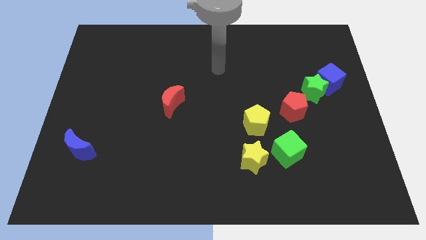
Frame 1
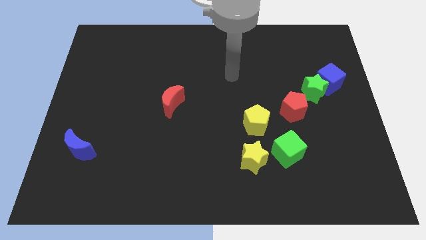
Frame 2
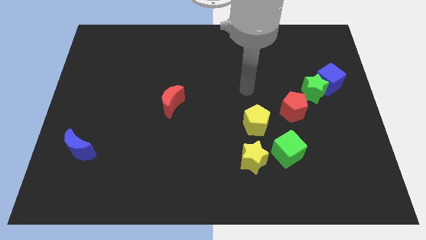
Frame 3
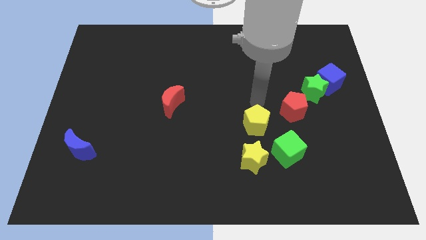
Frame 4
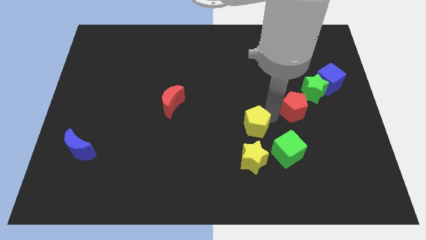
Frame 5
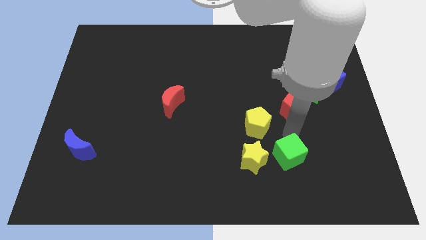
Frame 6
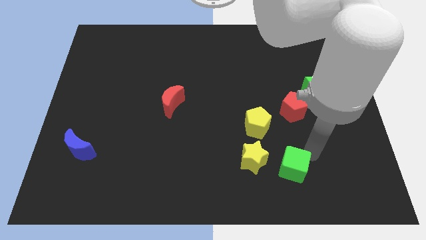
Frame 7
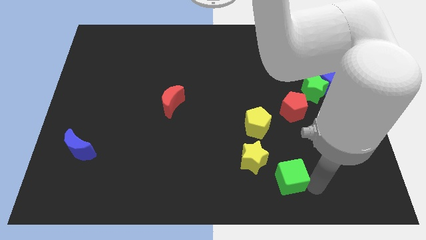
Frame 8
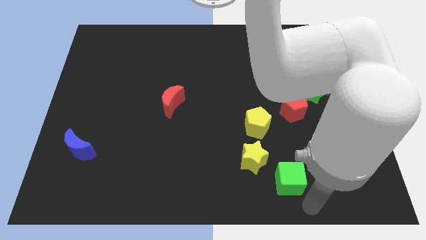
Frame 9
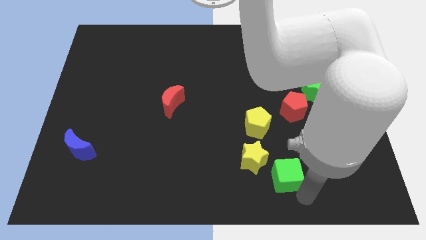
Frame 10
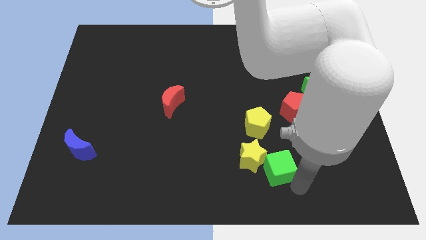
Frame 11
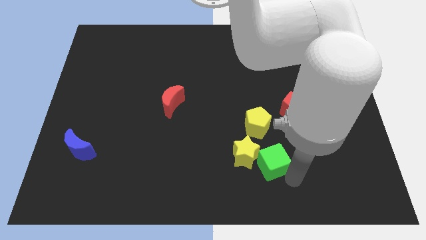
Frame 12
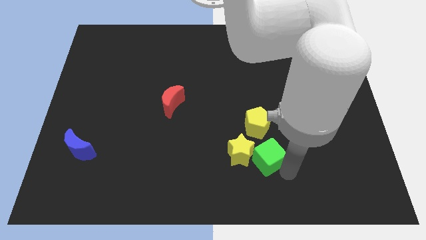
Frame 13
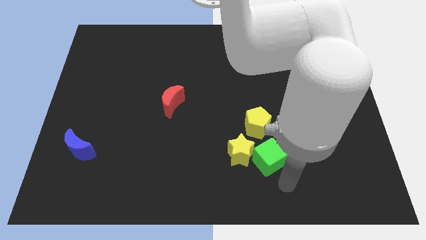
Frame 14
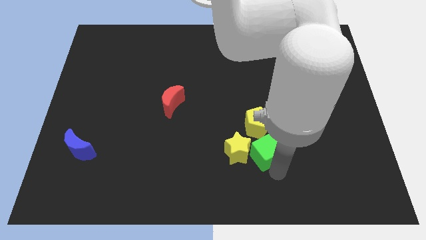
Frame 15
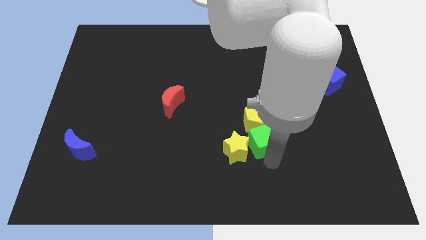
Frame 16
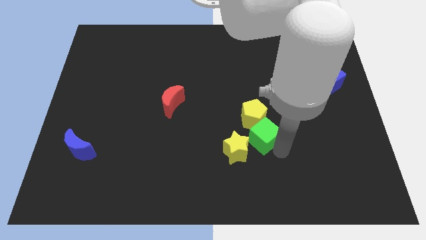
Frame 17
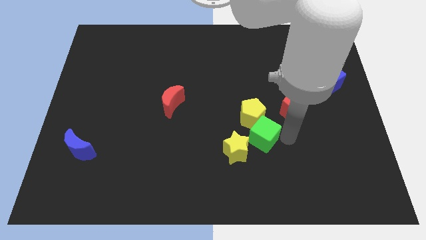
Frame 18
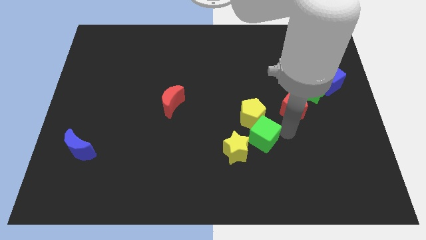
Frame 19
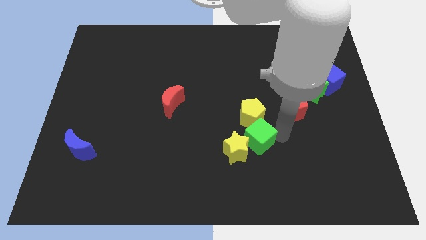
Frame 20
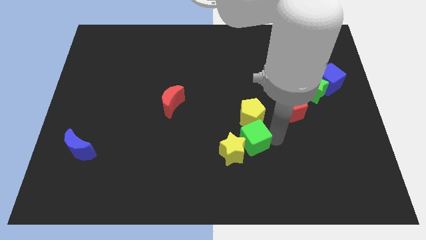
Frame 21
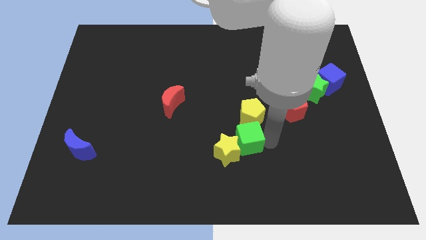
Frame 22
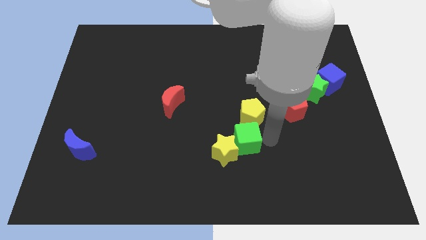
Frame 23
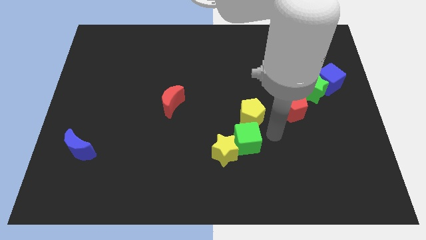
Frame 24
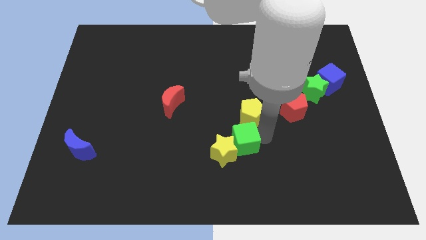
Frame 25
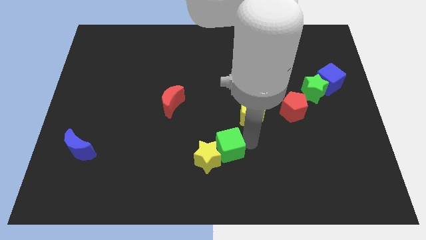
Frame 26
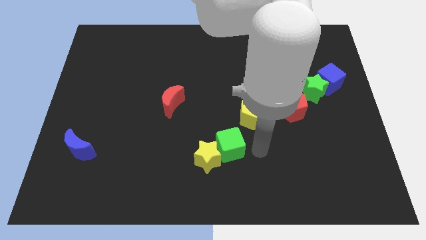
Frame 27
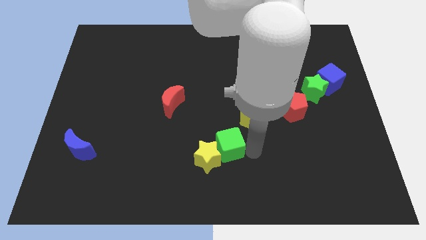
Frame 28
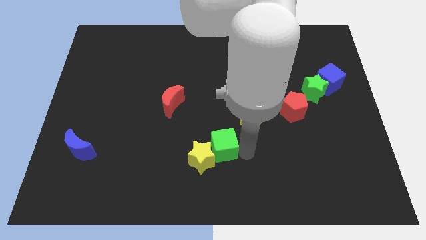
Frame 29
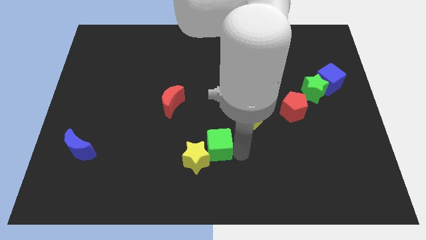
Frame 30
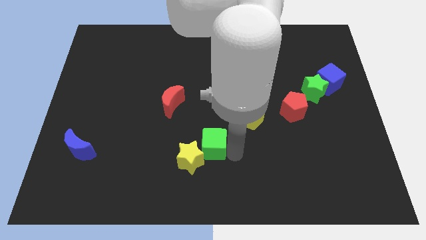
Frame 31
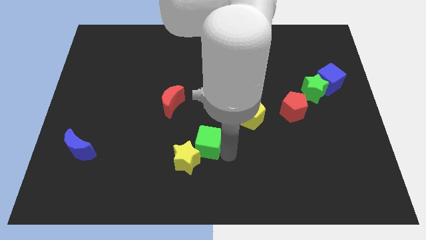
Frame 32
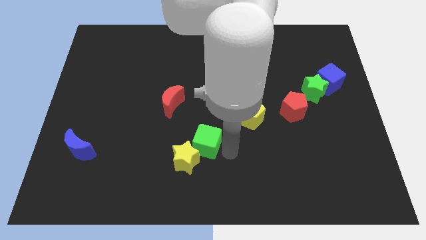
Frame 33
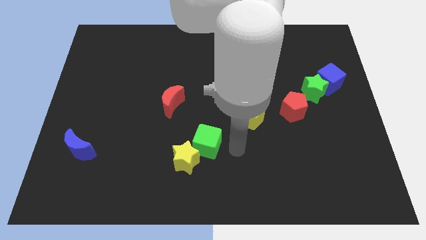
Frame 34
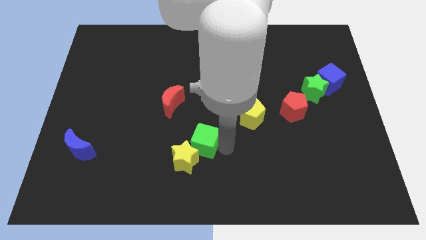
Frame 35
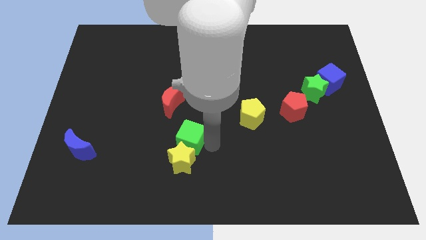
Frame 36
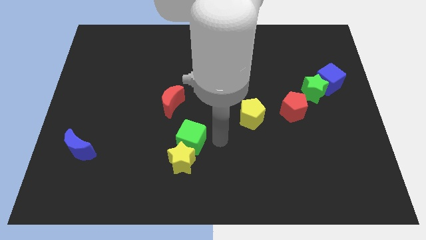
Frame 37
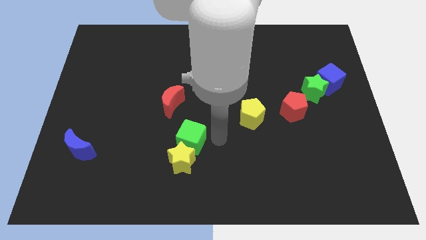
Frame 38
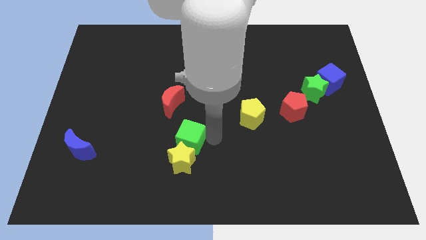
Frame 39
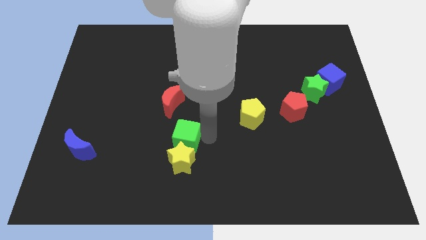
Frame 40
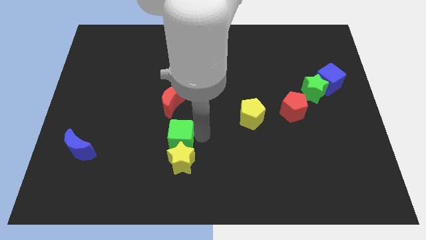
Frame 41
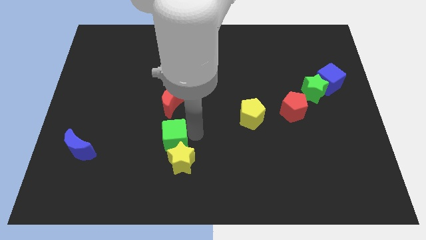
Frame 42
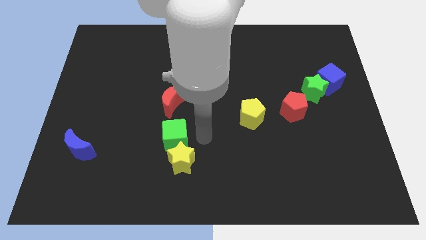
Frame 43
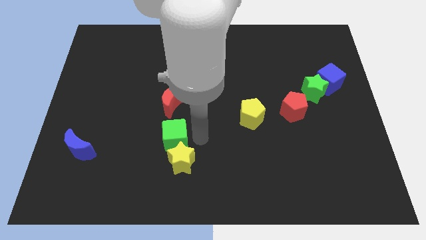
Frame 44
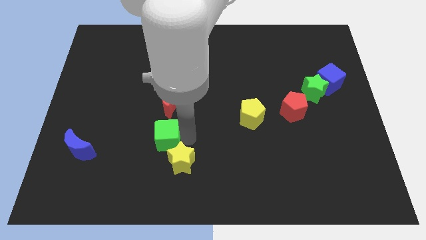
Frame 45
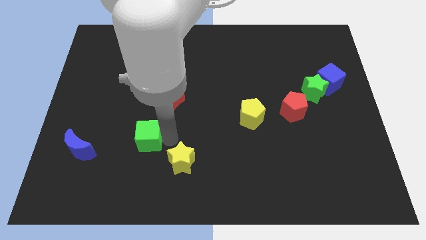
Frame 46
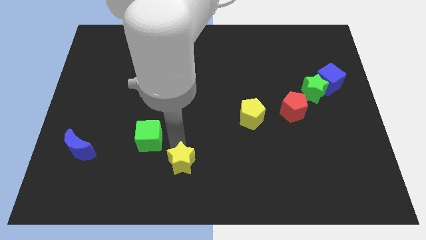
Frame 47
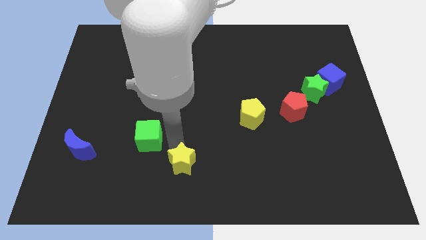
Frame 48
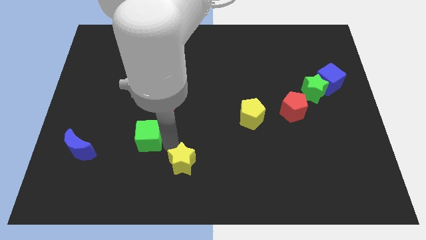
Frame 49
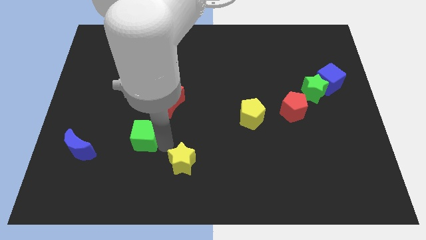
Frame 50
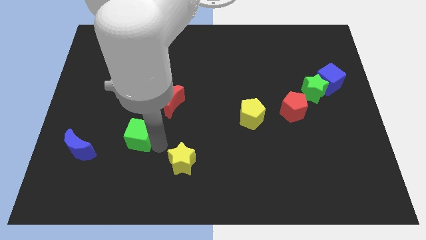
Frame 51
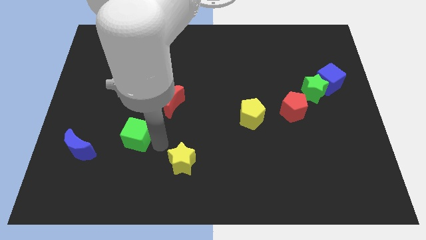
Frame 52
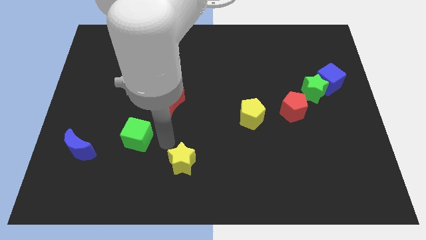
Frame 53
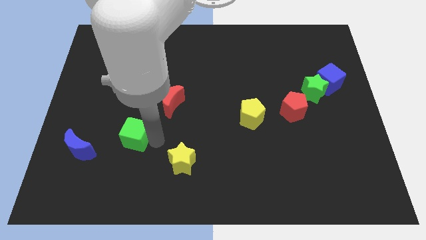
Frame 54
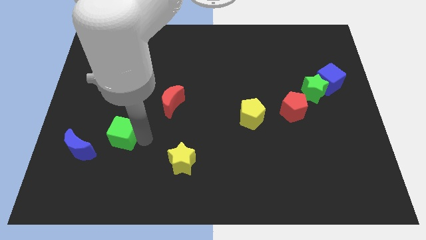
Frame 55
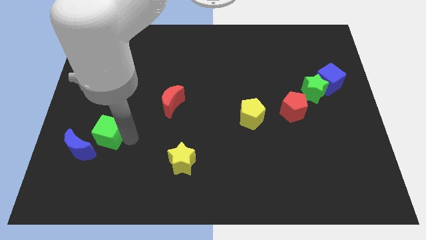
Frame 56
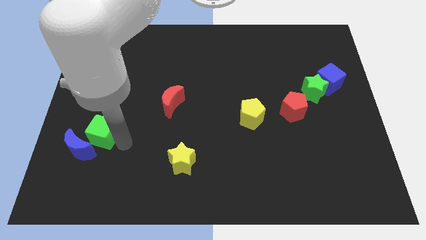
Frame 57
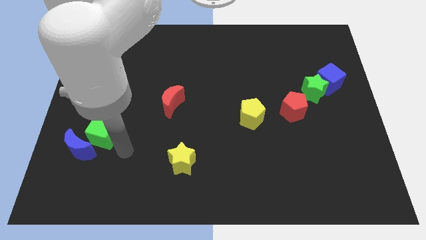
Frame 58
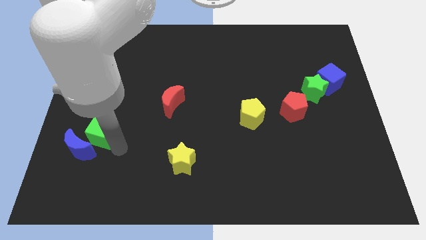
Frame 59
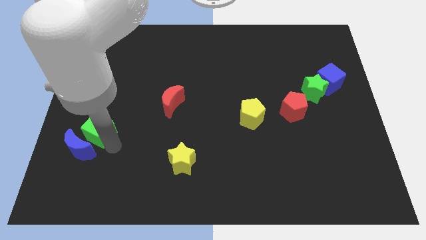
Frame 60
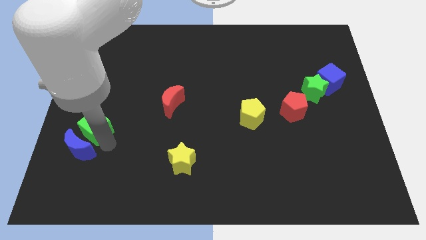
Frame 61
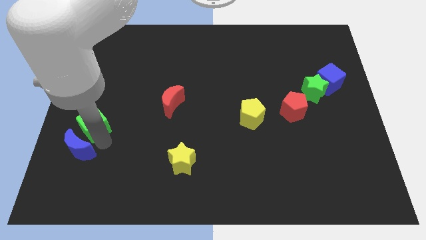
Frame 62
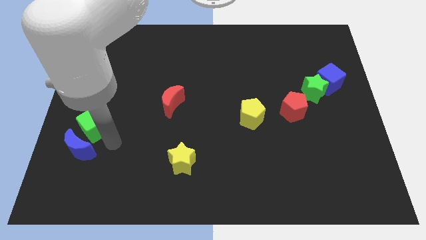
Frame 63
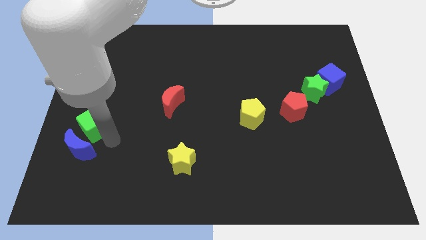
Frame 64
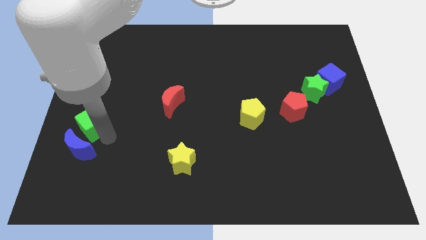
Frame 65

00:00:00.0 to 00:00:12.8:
put the green cube to the left side

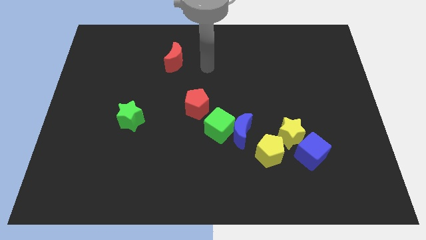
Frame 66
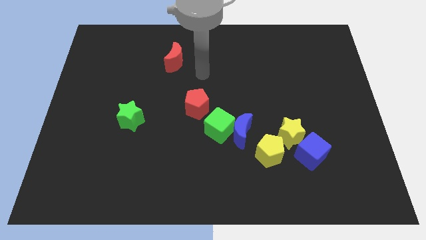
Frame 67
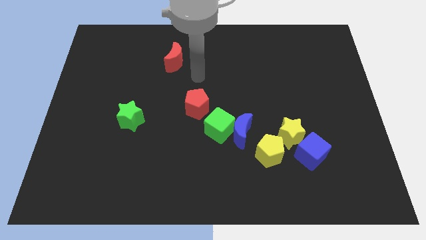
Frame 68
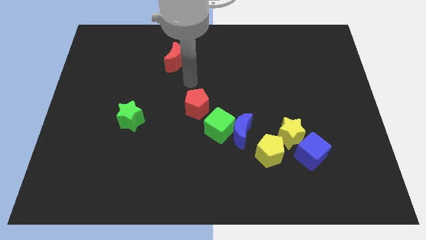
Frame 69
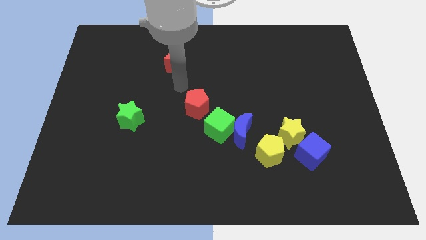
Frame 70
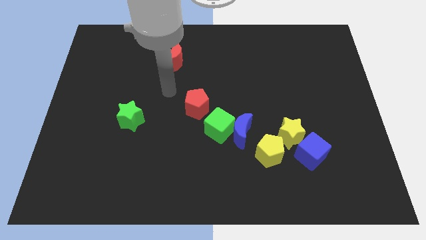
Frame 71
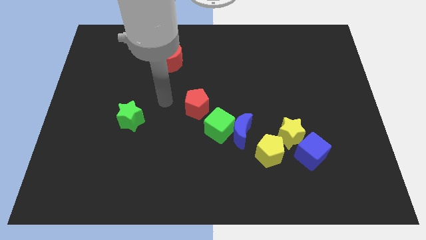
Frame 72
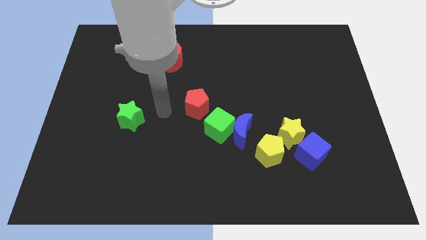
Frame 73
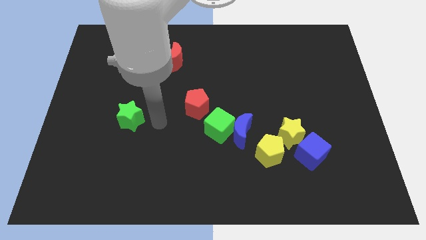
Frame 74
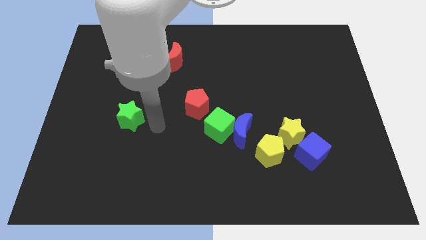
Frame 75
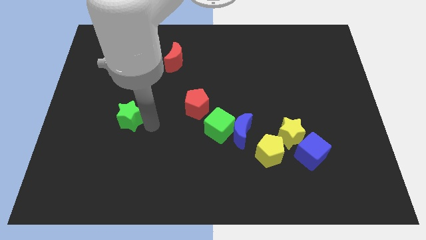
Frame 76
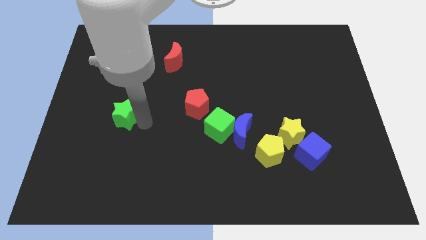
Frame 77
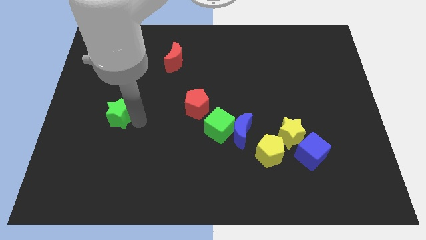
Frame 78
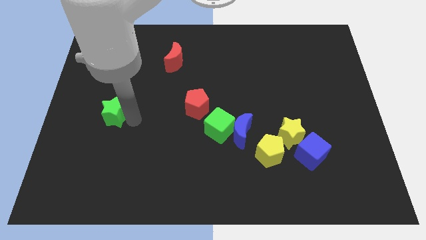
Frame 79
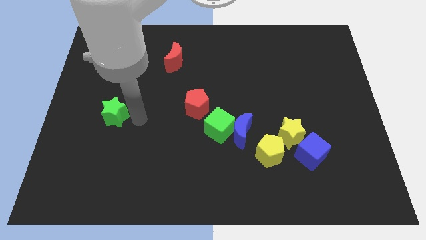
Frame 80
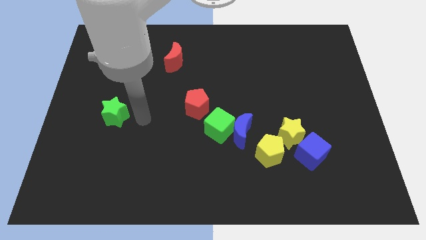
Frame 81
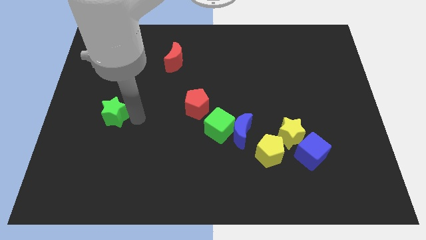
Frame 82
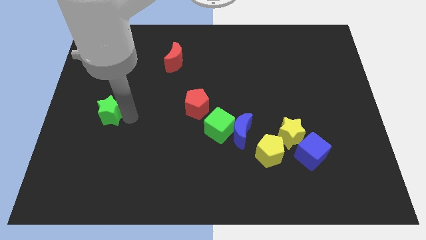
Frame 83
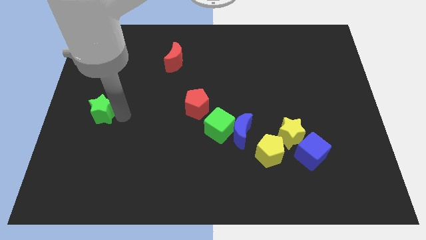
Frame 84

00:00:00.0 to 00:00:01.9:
move the green star to the center left
